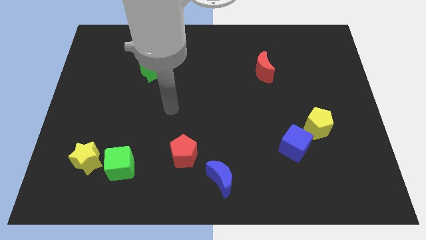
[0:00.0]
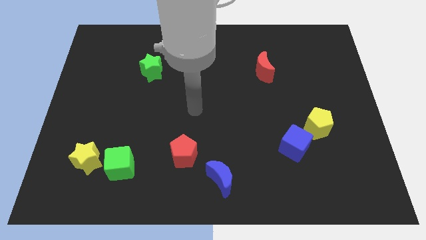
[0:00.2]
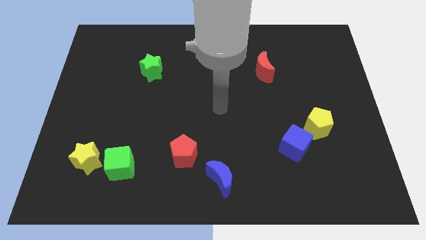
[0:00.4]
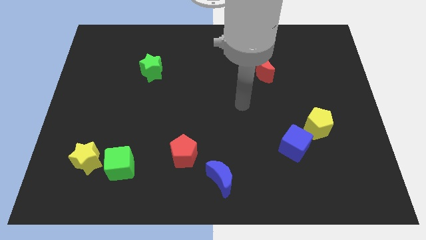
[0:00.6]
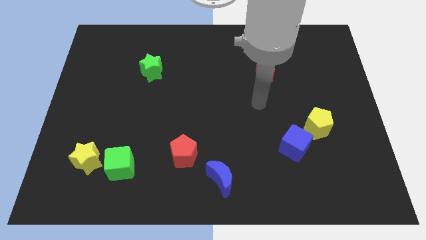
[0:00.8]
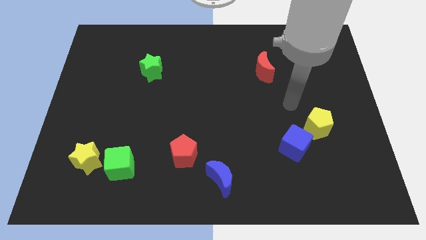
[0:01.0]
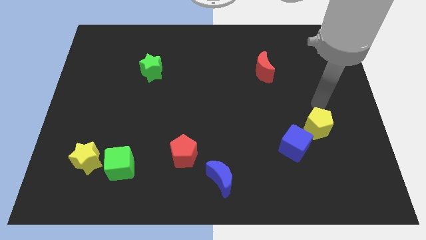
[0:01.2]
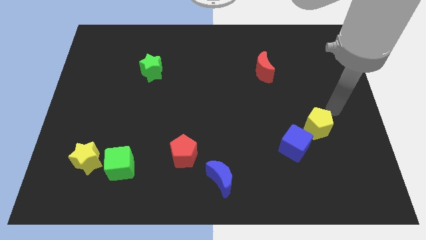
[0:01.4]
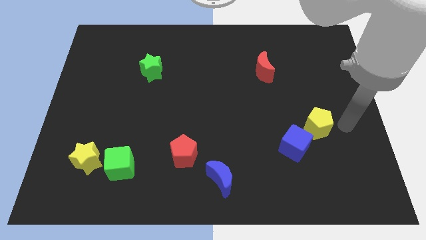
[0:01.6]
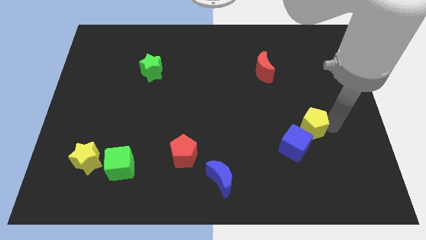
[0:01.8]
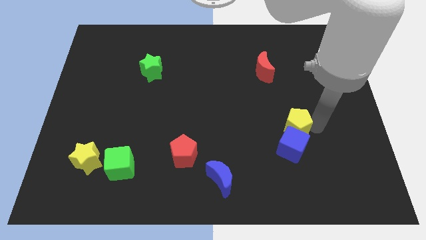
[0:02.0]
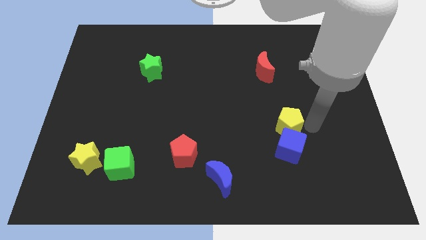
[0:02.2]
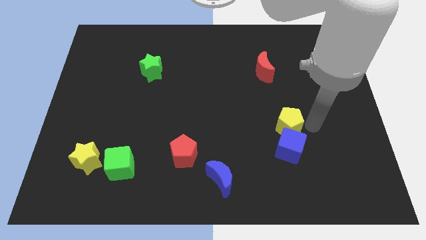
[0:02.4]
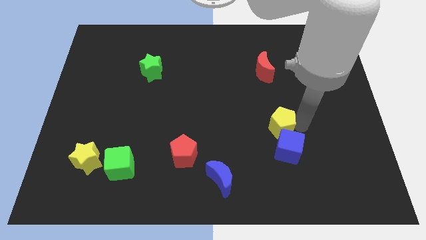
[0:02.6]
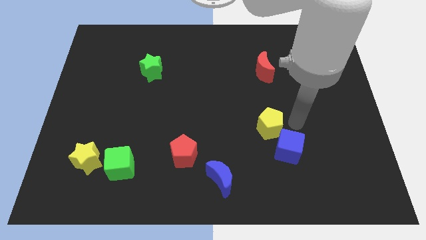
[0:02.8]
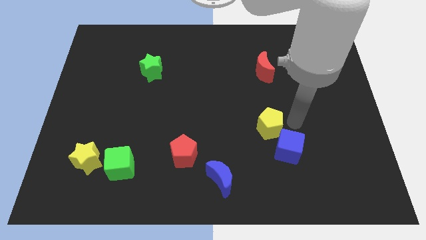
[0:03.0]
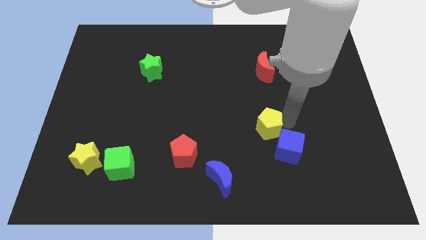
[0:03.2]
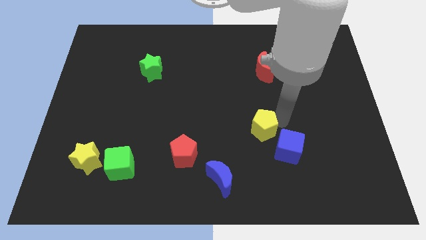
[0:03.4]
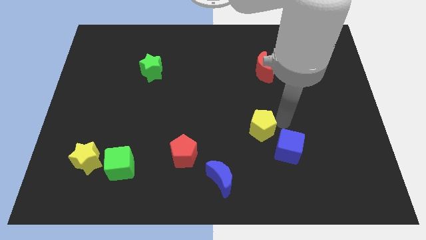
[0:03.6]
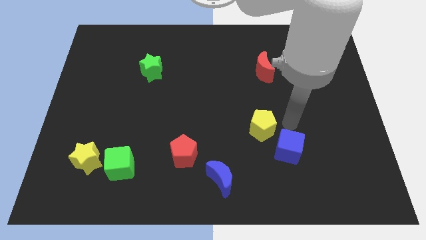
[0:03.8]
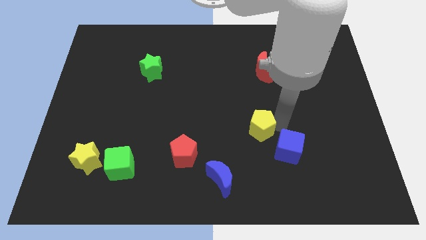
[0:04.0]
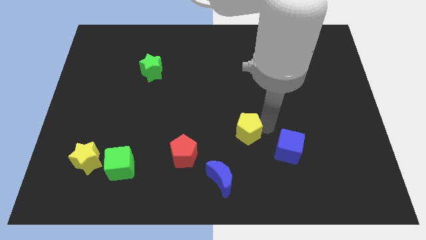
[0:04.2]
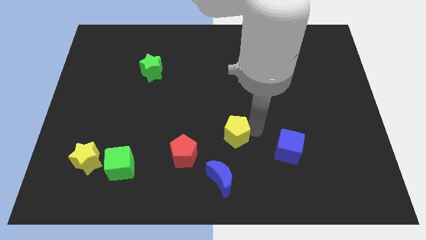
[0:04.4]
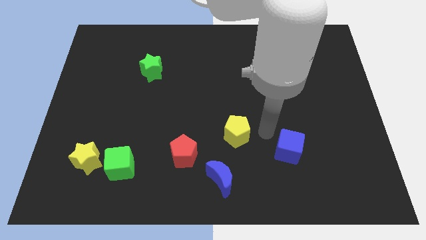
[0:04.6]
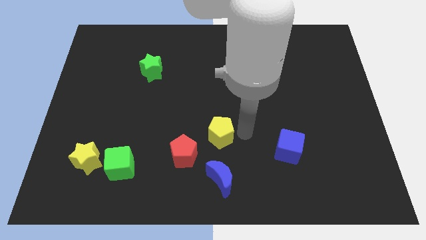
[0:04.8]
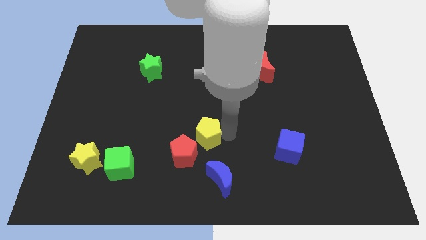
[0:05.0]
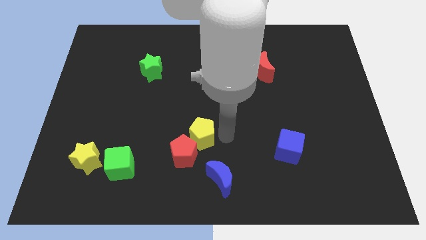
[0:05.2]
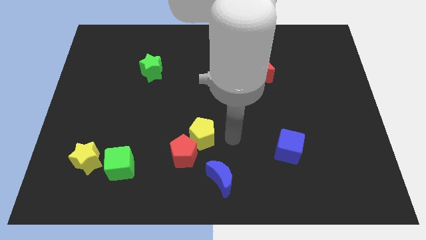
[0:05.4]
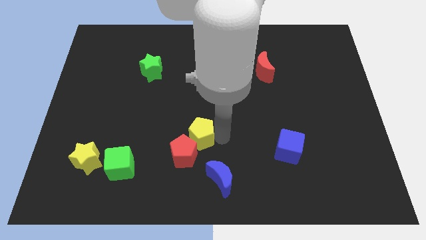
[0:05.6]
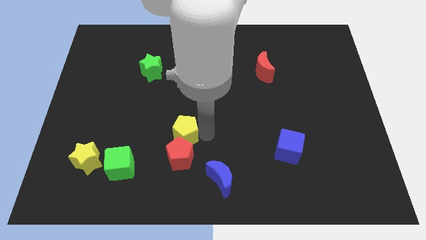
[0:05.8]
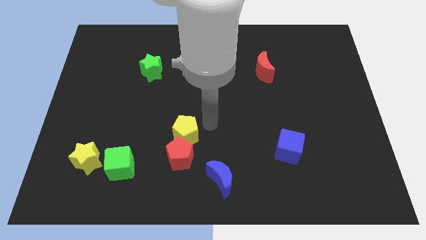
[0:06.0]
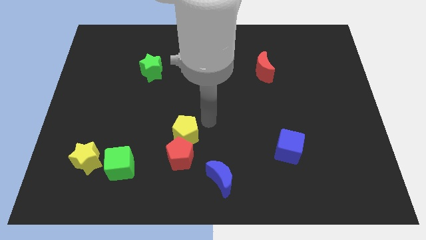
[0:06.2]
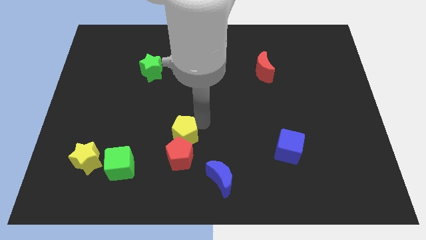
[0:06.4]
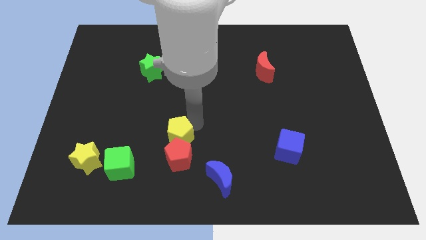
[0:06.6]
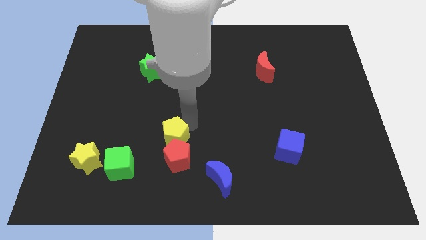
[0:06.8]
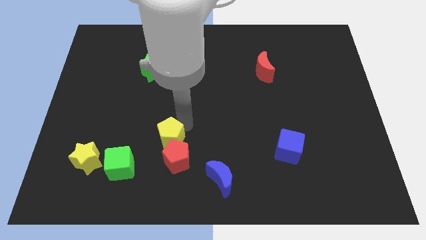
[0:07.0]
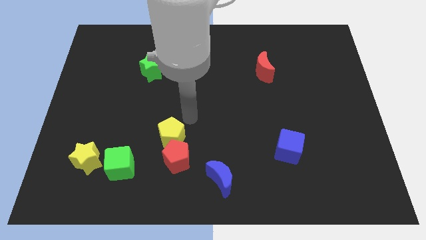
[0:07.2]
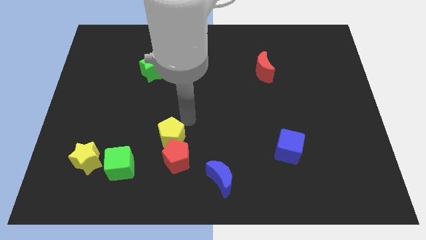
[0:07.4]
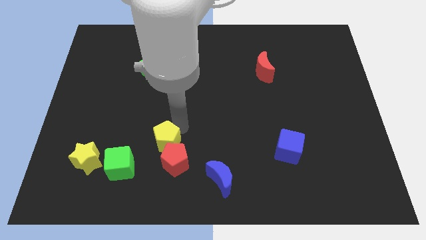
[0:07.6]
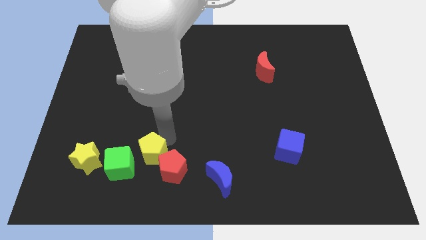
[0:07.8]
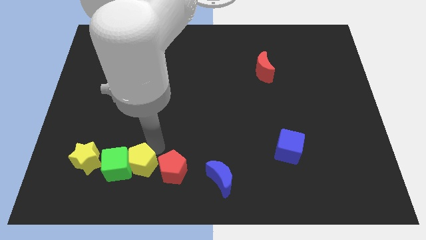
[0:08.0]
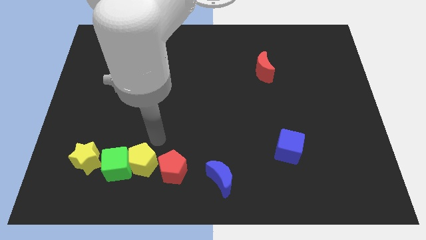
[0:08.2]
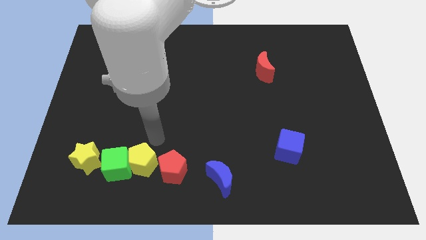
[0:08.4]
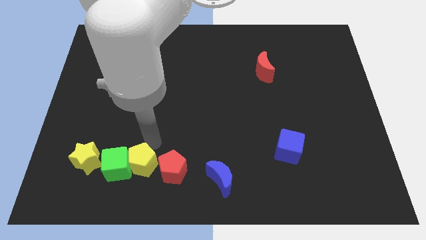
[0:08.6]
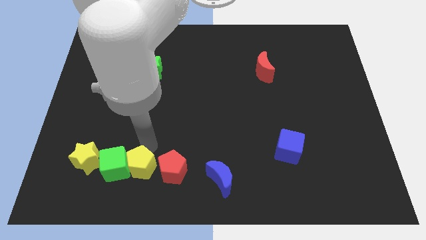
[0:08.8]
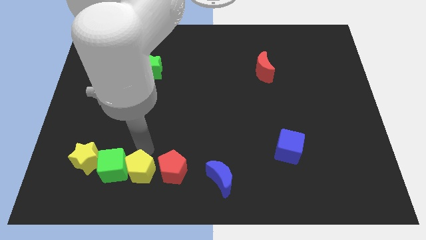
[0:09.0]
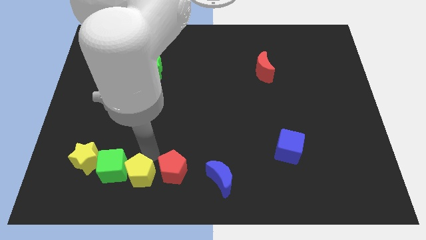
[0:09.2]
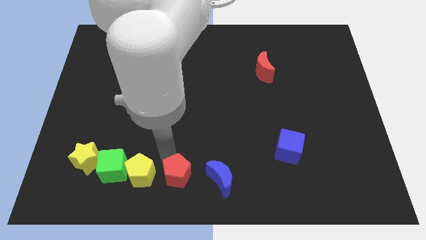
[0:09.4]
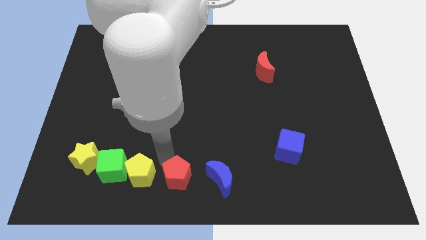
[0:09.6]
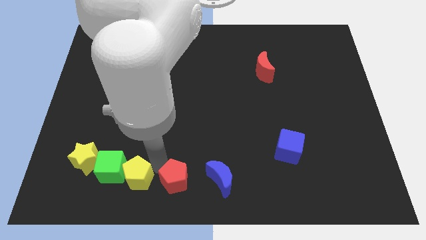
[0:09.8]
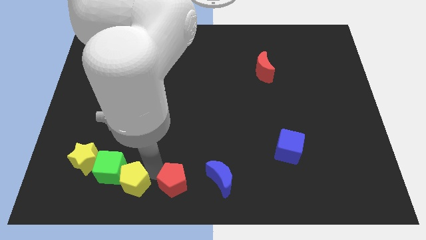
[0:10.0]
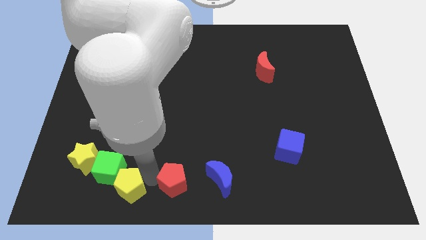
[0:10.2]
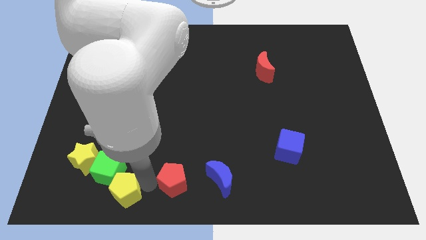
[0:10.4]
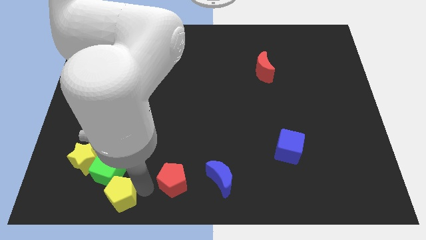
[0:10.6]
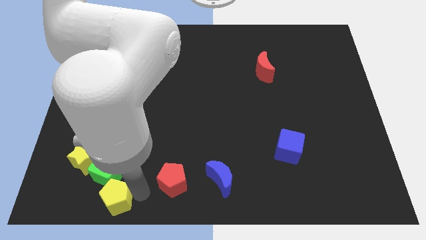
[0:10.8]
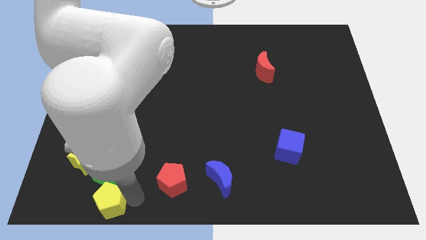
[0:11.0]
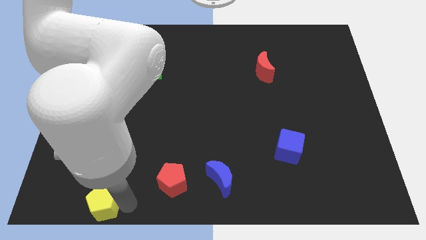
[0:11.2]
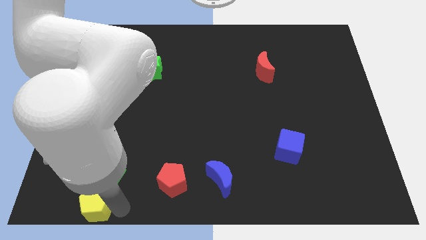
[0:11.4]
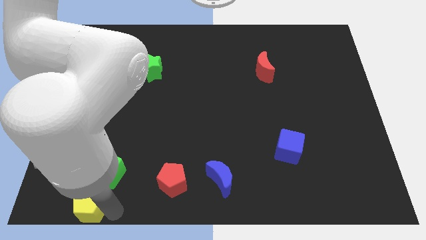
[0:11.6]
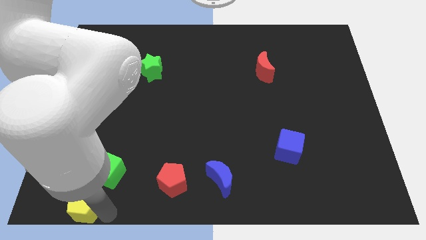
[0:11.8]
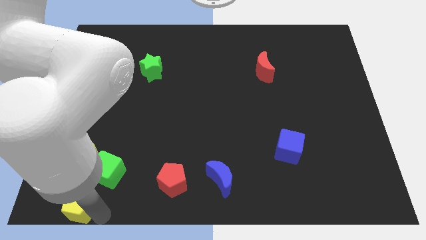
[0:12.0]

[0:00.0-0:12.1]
move the yellow pentagon to the lower left corner

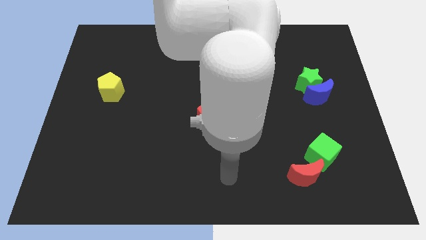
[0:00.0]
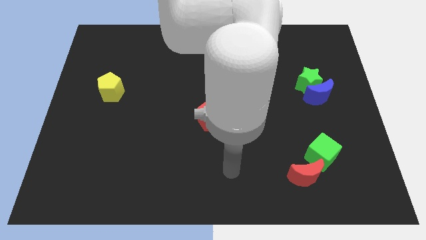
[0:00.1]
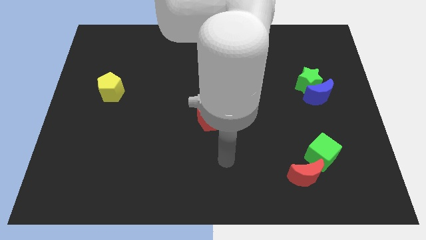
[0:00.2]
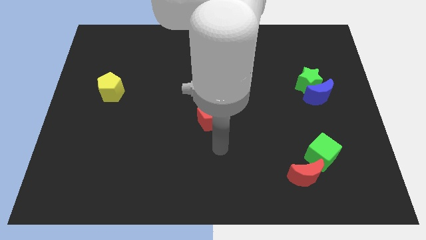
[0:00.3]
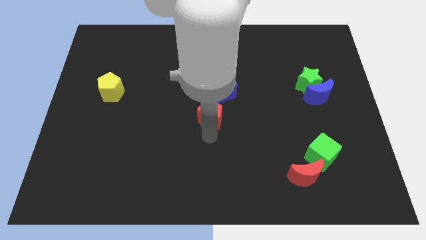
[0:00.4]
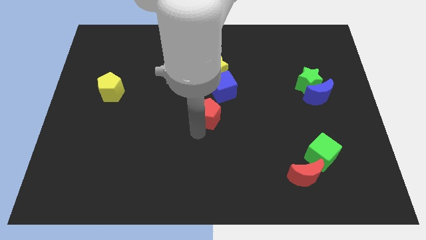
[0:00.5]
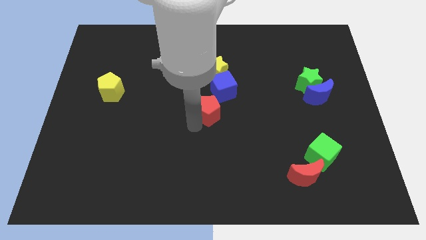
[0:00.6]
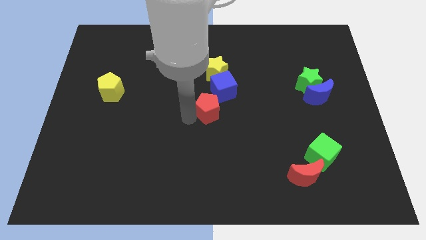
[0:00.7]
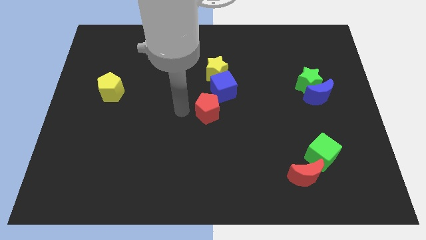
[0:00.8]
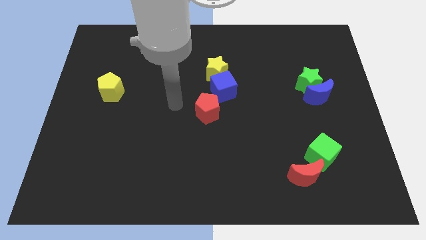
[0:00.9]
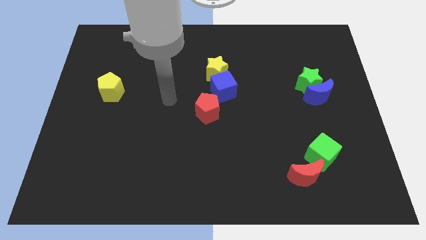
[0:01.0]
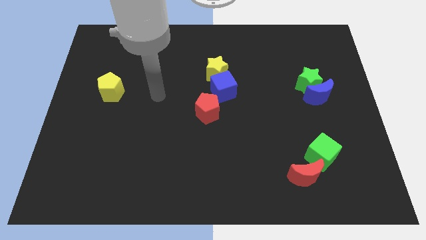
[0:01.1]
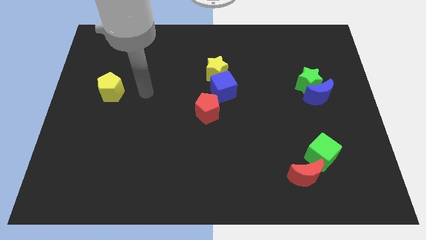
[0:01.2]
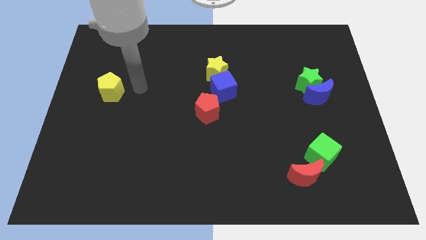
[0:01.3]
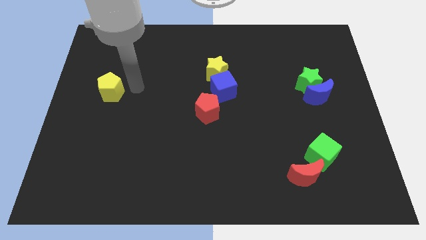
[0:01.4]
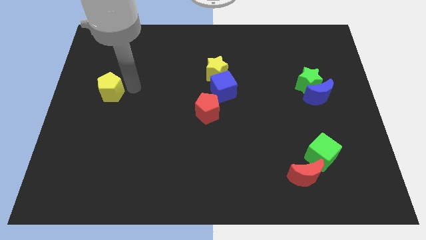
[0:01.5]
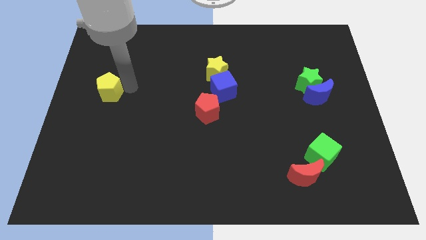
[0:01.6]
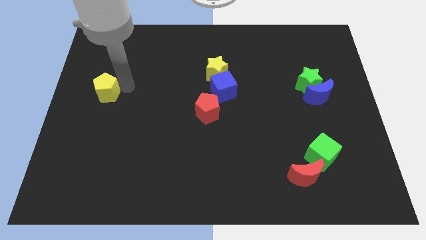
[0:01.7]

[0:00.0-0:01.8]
slide the yellow pentagon to the left side of the board
